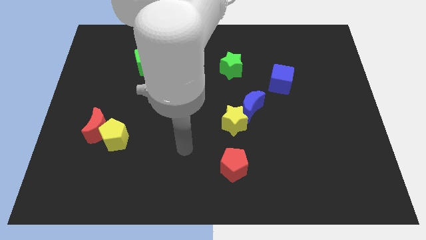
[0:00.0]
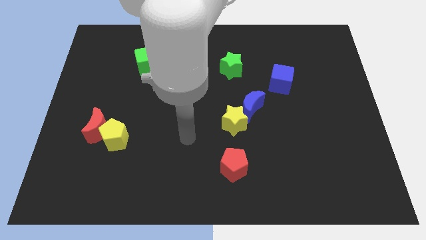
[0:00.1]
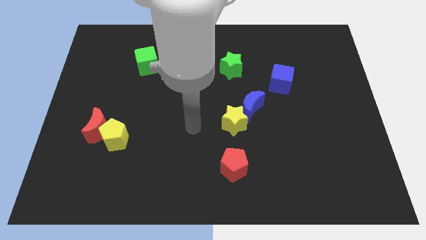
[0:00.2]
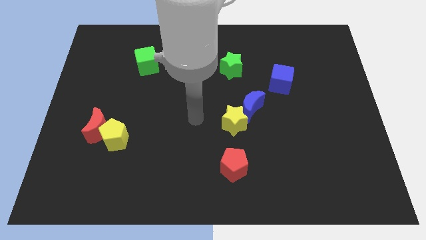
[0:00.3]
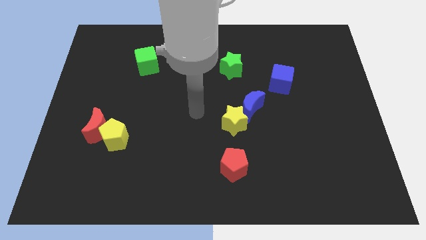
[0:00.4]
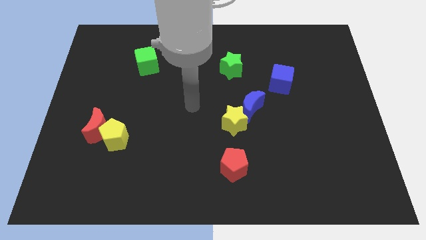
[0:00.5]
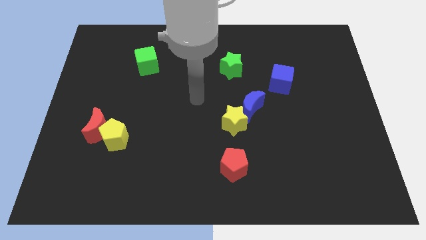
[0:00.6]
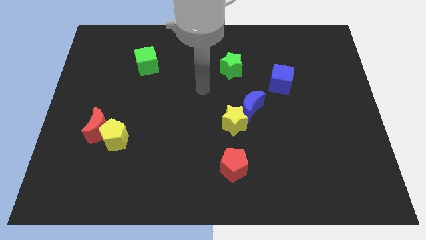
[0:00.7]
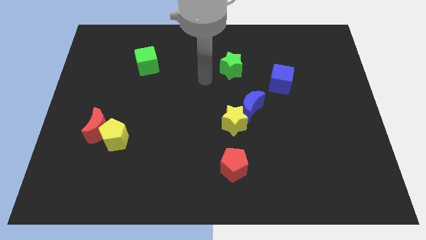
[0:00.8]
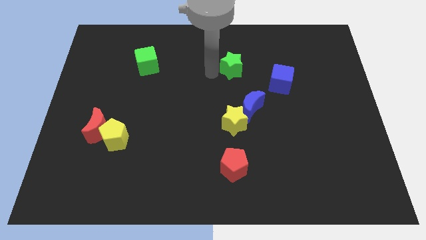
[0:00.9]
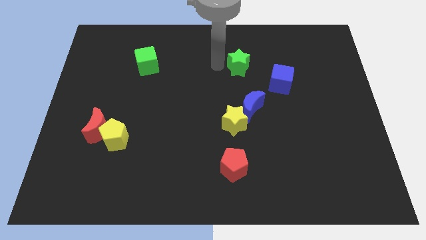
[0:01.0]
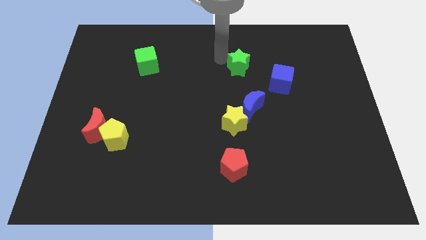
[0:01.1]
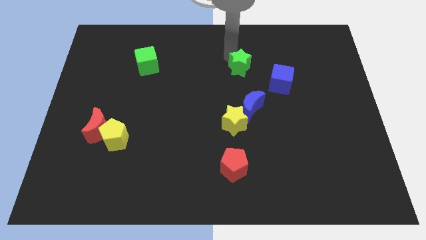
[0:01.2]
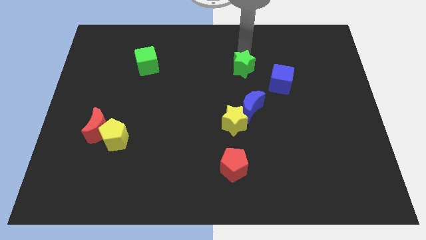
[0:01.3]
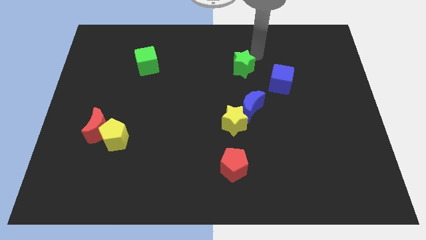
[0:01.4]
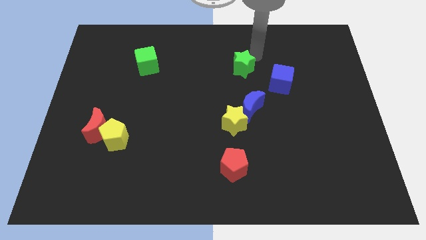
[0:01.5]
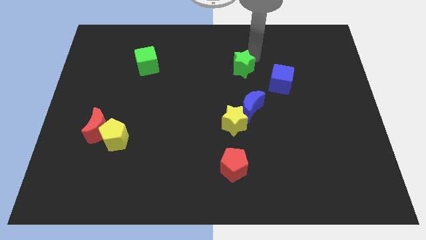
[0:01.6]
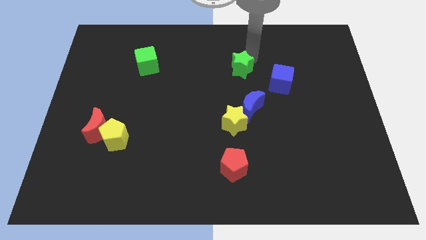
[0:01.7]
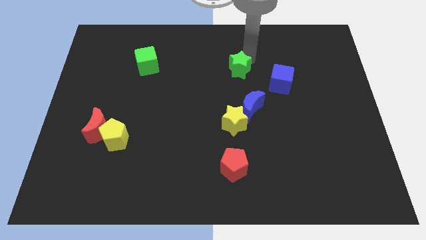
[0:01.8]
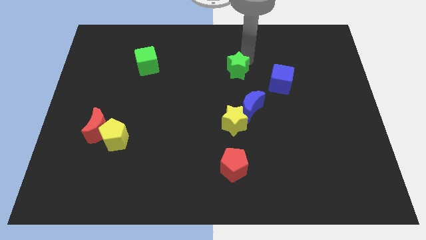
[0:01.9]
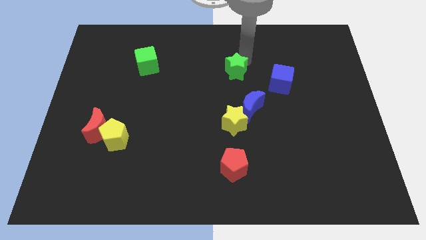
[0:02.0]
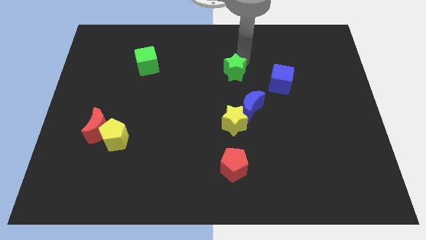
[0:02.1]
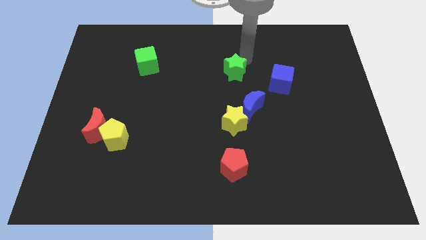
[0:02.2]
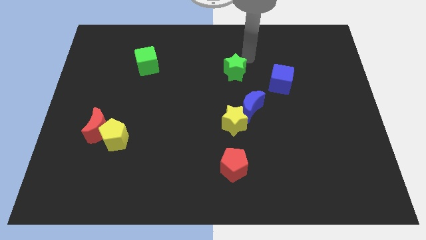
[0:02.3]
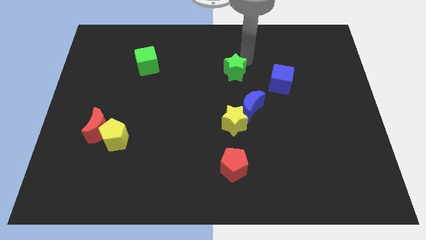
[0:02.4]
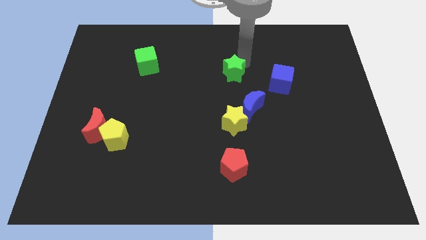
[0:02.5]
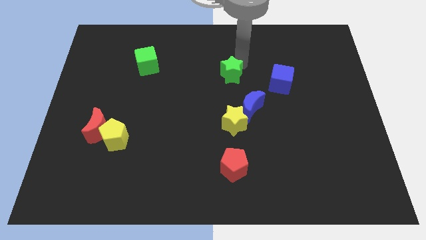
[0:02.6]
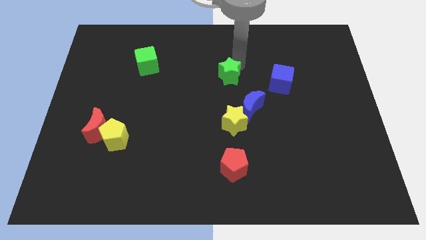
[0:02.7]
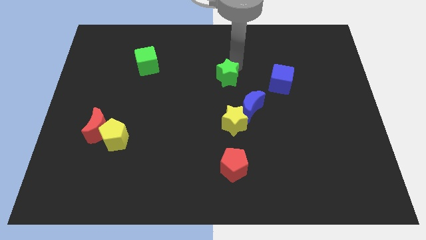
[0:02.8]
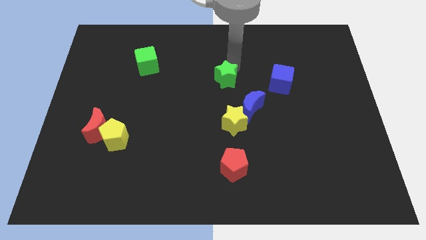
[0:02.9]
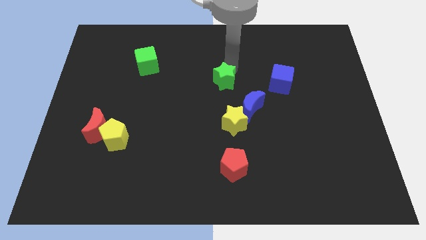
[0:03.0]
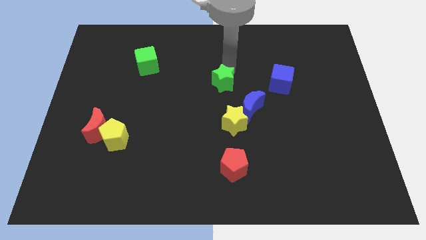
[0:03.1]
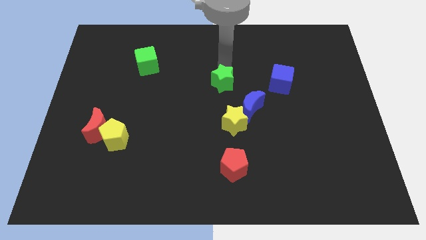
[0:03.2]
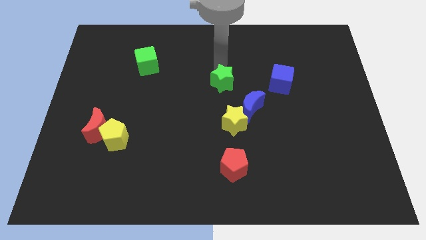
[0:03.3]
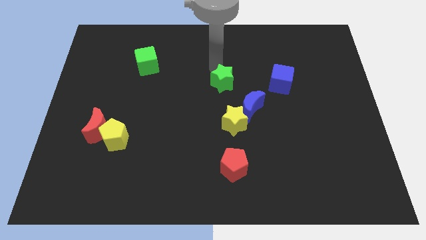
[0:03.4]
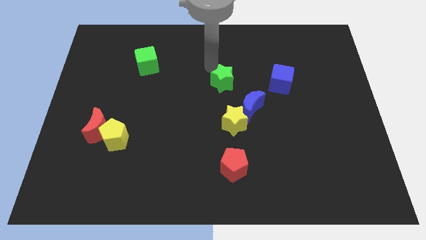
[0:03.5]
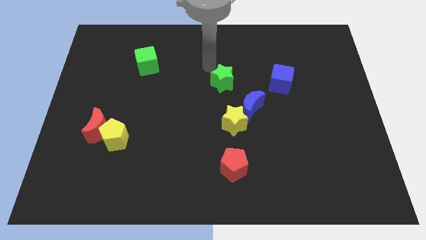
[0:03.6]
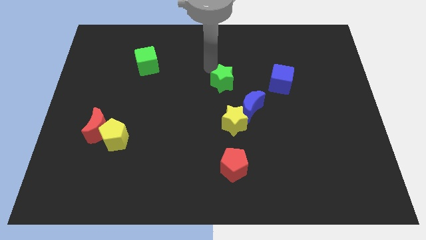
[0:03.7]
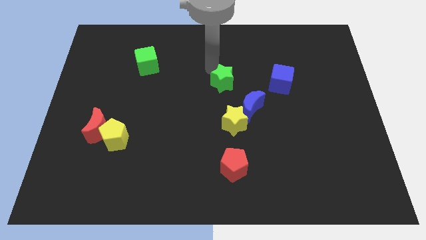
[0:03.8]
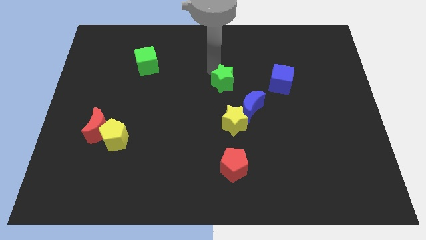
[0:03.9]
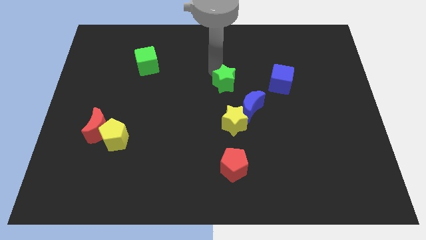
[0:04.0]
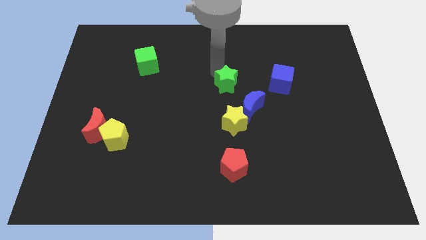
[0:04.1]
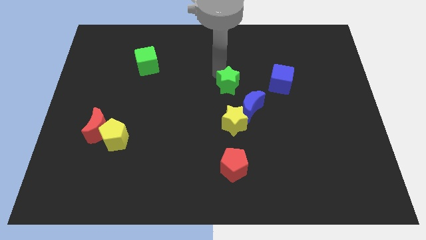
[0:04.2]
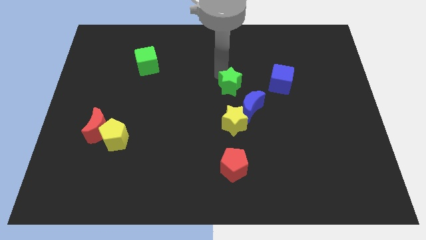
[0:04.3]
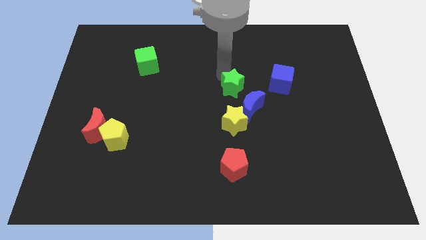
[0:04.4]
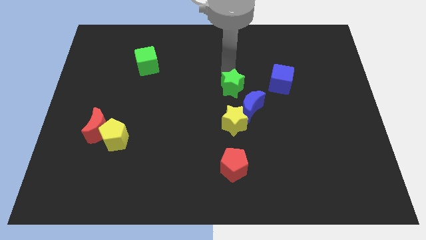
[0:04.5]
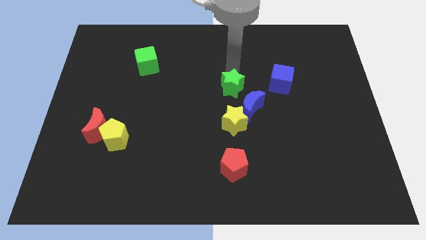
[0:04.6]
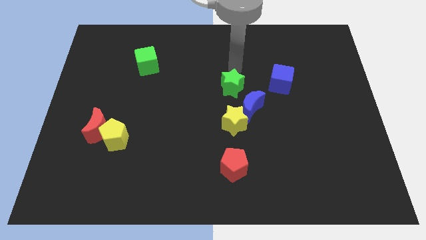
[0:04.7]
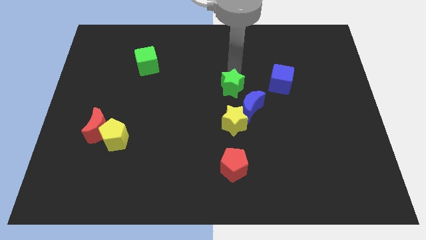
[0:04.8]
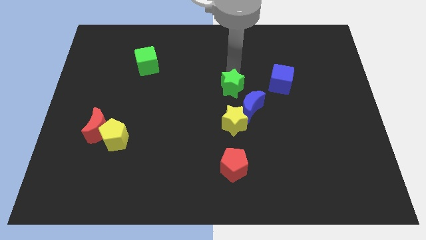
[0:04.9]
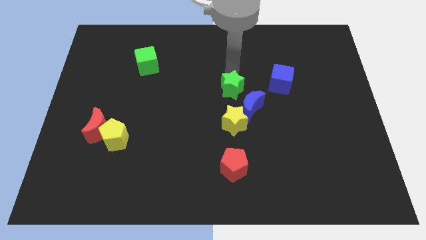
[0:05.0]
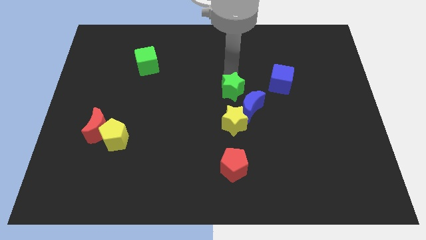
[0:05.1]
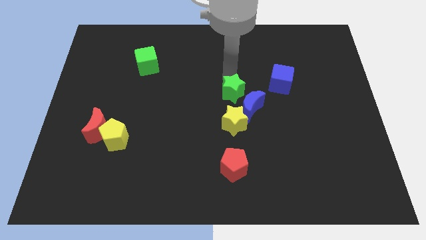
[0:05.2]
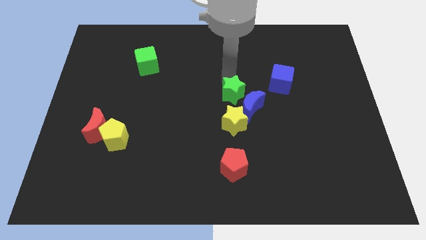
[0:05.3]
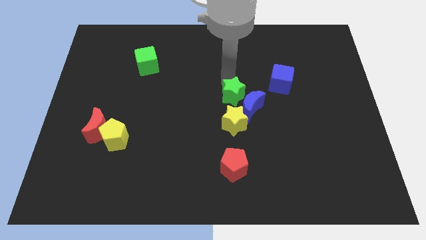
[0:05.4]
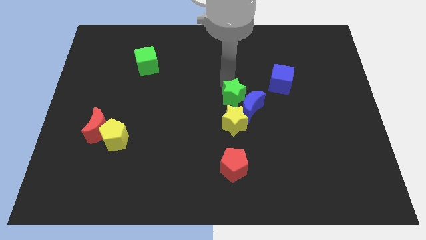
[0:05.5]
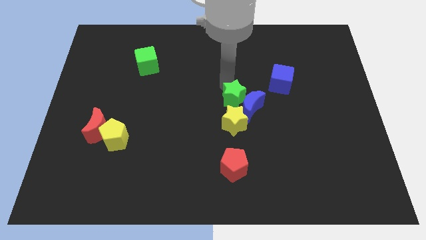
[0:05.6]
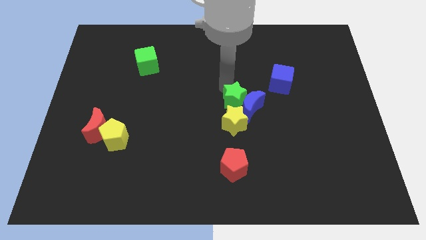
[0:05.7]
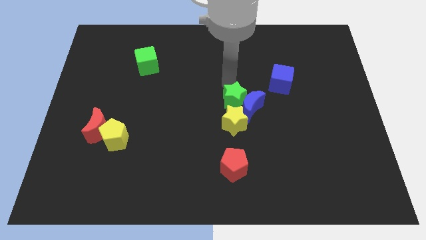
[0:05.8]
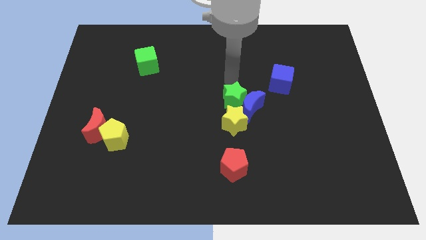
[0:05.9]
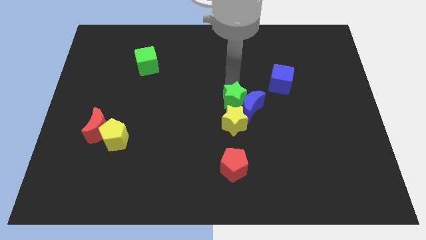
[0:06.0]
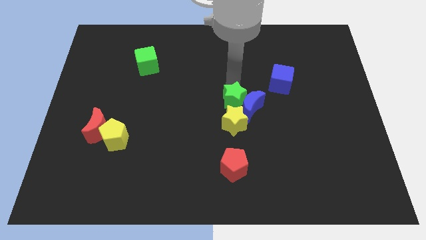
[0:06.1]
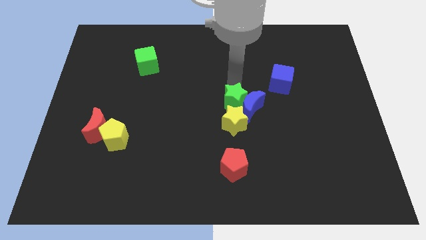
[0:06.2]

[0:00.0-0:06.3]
slide the green star towards the yellow star

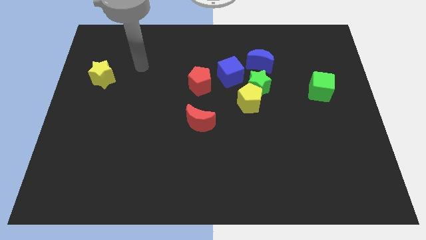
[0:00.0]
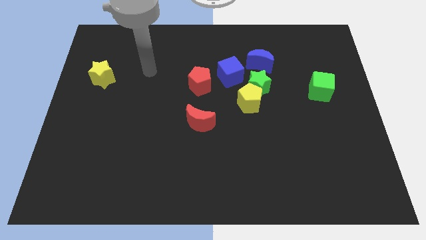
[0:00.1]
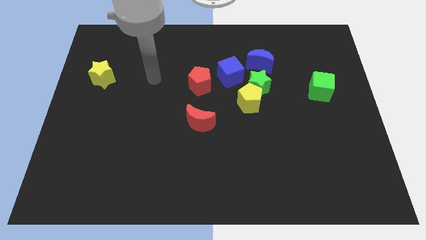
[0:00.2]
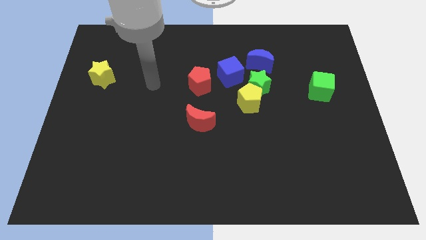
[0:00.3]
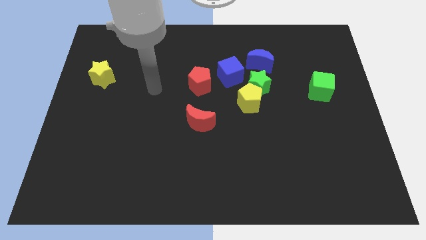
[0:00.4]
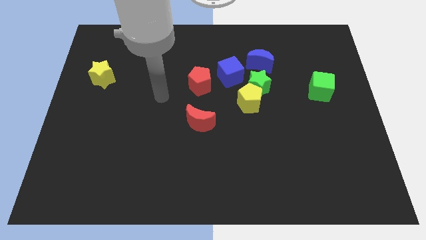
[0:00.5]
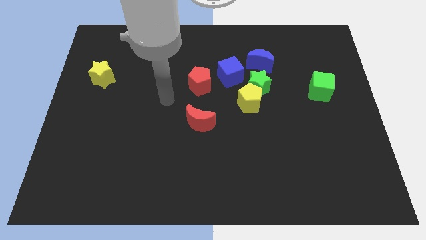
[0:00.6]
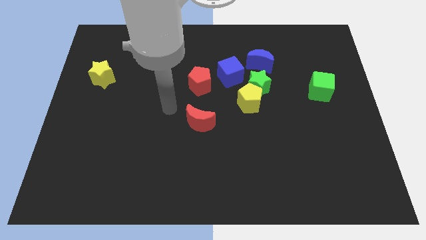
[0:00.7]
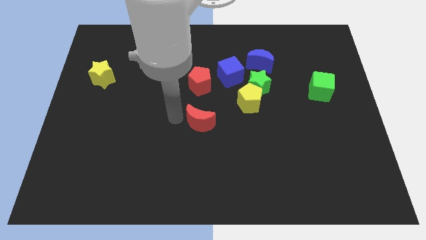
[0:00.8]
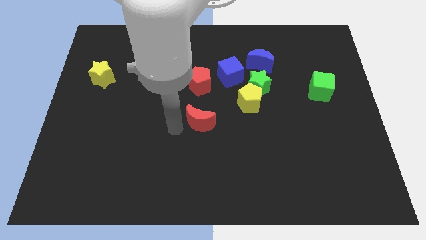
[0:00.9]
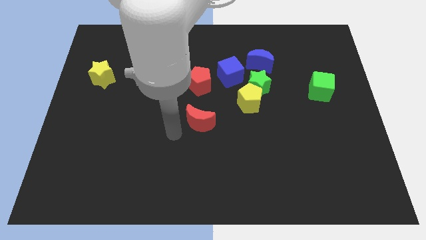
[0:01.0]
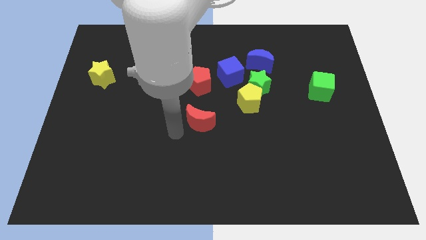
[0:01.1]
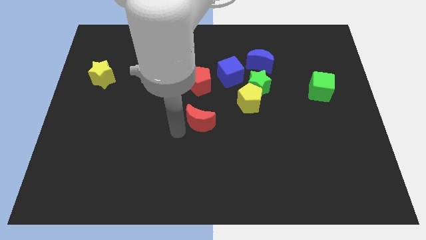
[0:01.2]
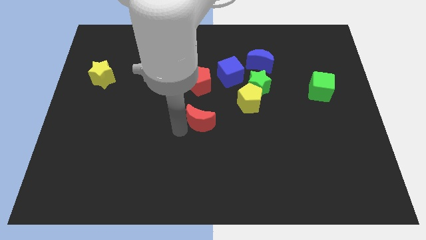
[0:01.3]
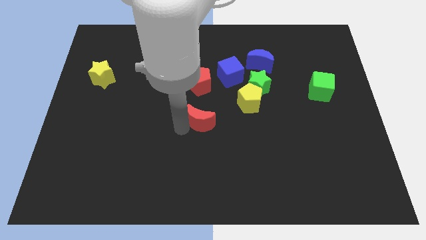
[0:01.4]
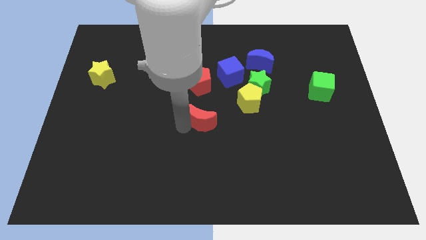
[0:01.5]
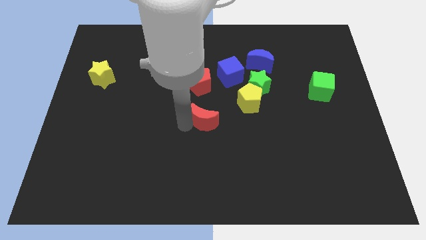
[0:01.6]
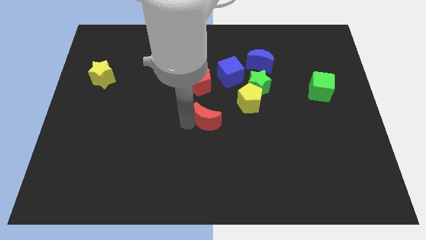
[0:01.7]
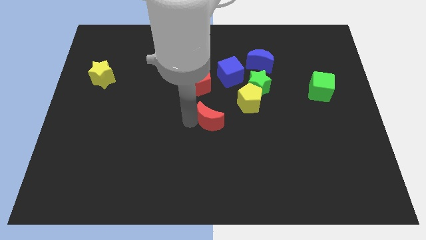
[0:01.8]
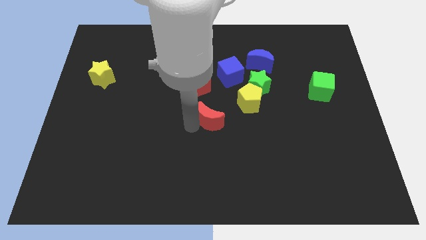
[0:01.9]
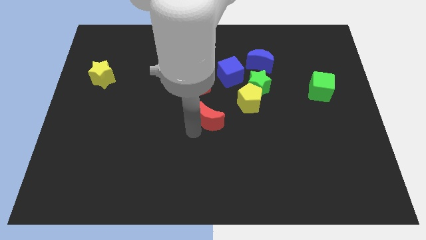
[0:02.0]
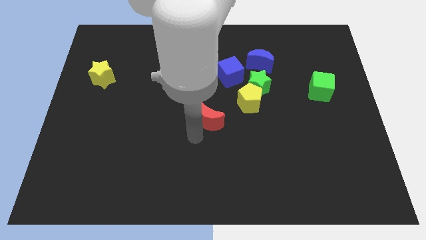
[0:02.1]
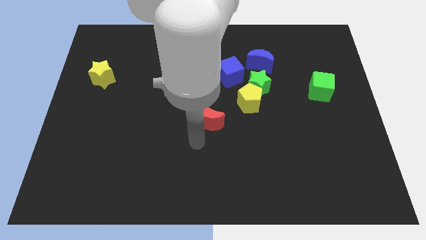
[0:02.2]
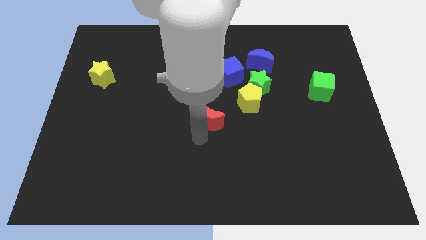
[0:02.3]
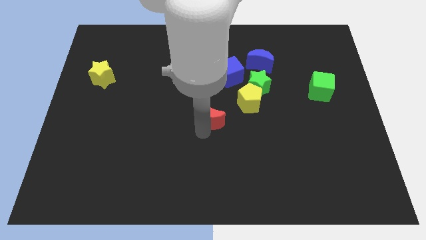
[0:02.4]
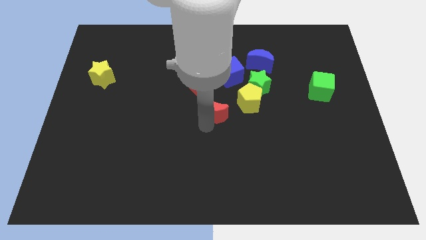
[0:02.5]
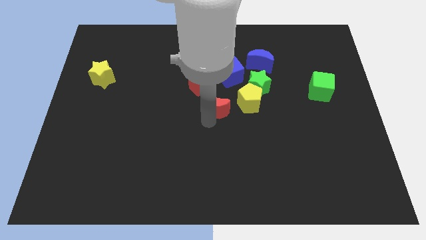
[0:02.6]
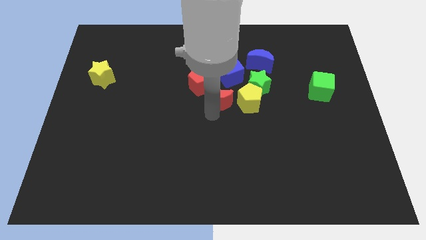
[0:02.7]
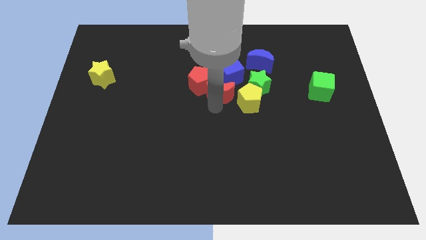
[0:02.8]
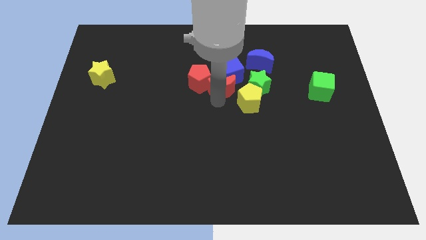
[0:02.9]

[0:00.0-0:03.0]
put the red moon close to the blue cube
